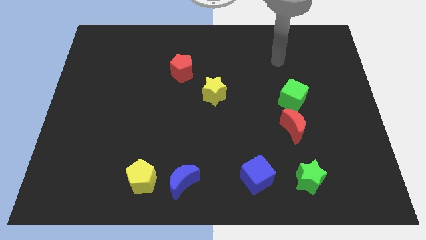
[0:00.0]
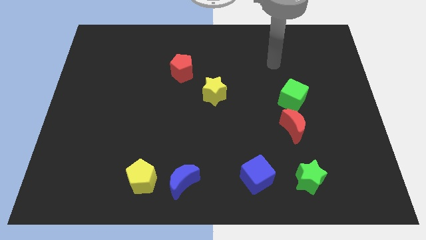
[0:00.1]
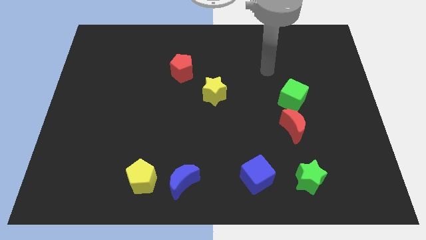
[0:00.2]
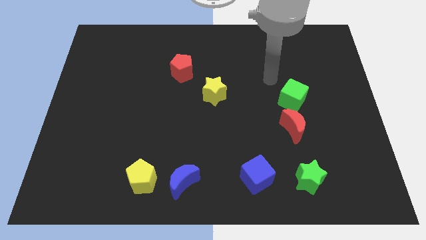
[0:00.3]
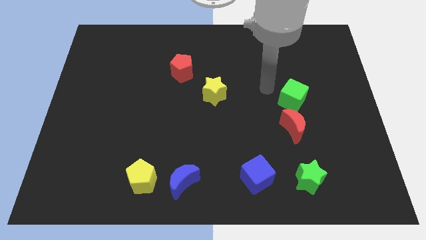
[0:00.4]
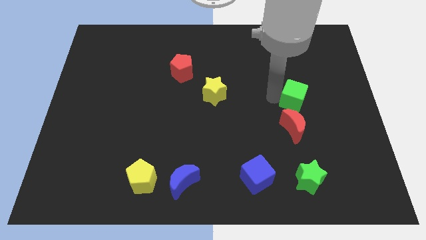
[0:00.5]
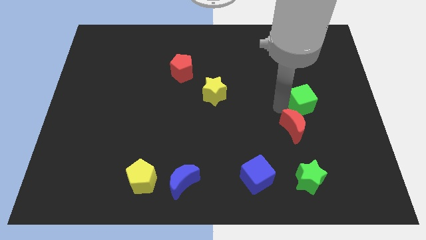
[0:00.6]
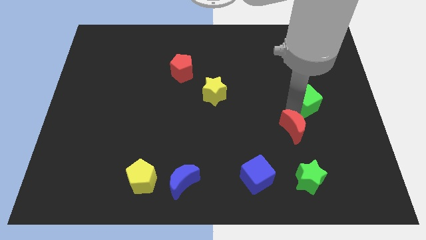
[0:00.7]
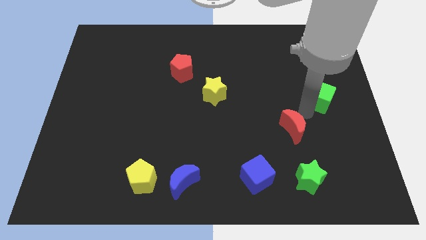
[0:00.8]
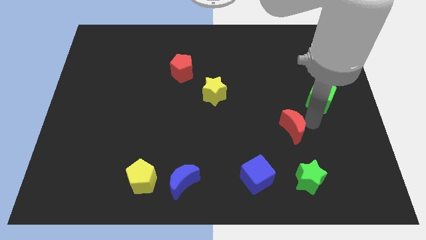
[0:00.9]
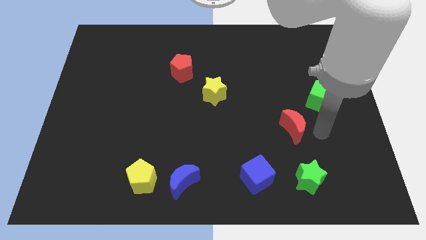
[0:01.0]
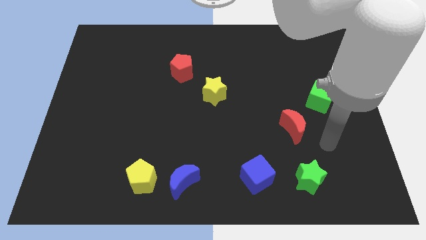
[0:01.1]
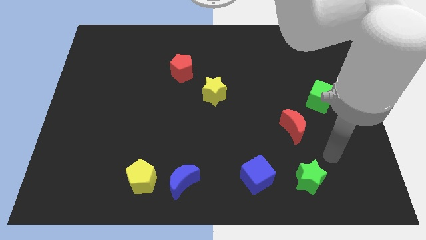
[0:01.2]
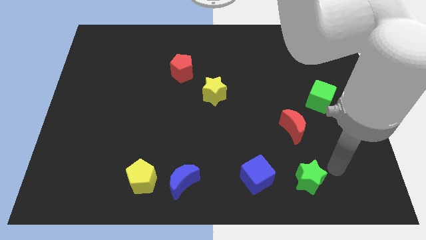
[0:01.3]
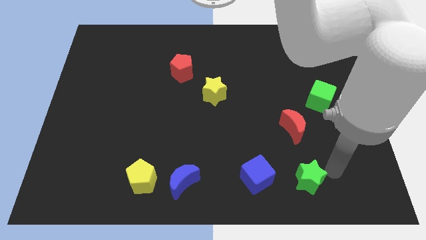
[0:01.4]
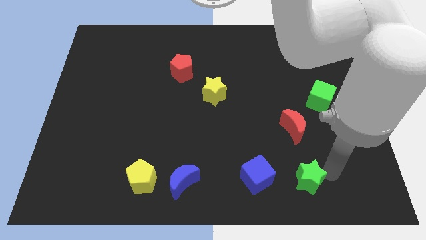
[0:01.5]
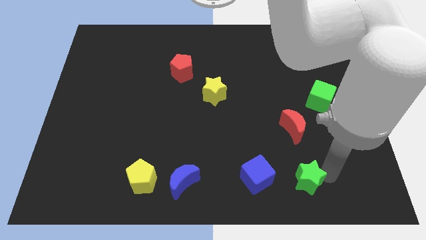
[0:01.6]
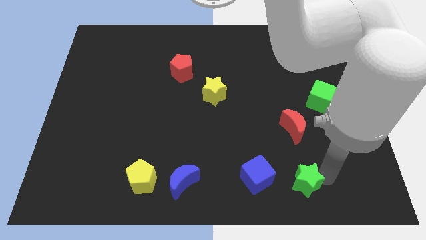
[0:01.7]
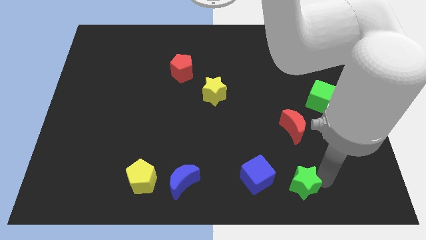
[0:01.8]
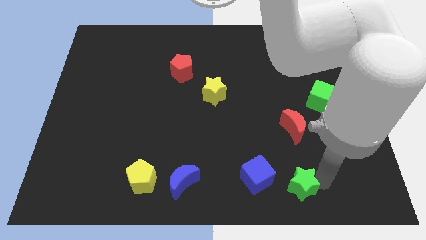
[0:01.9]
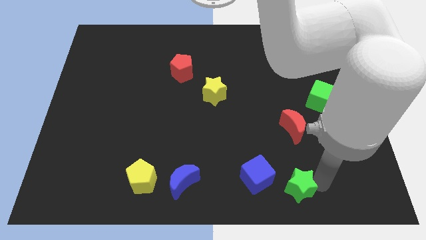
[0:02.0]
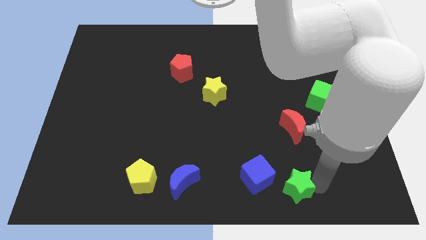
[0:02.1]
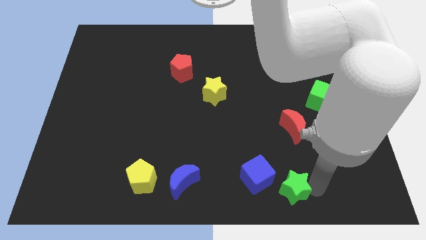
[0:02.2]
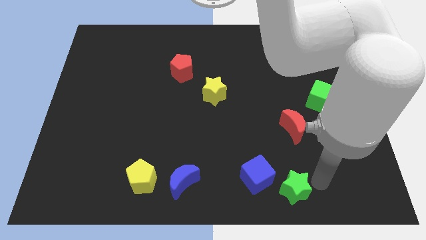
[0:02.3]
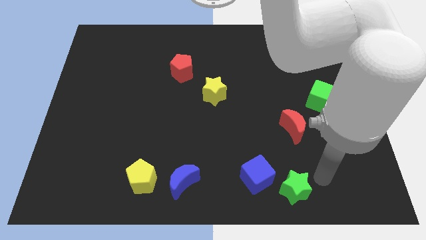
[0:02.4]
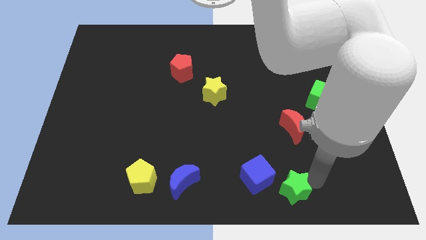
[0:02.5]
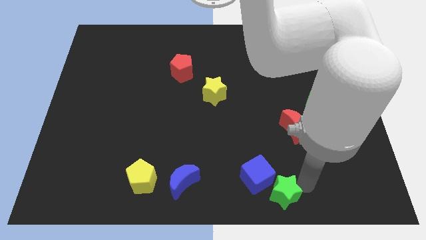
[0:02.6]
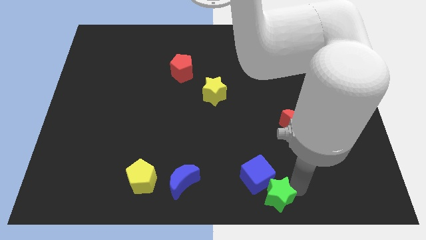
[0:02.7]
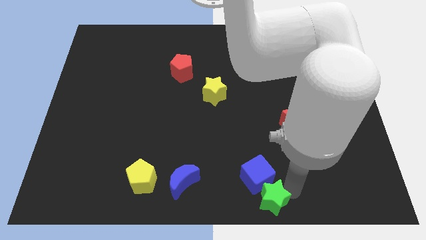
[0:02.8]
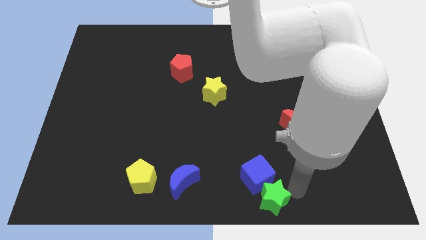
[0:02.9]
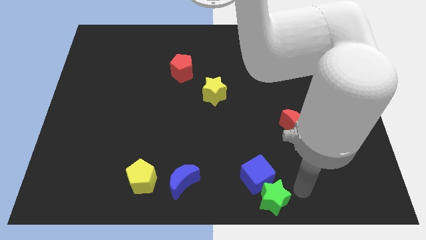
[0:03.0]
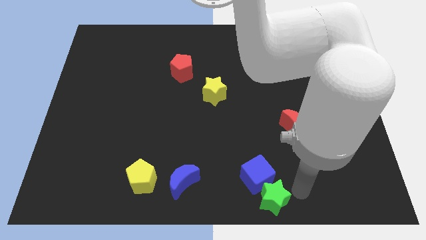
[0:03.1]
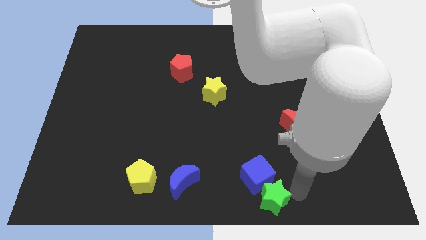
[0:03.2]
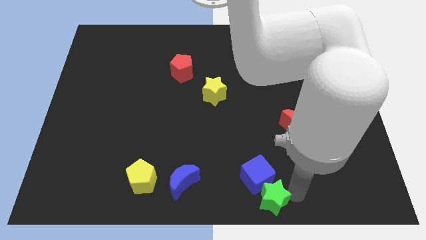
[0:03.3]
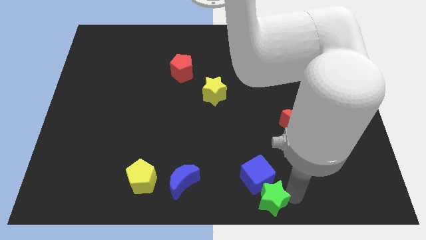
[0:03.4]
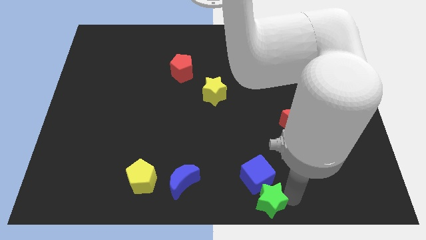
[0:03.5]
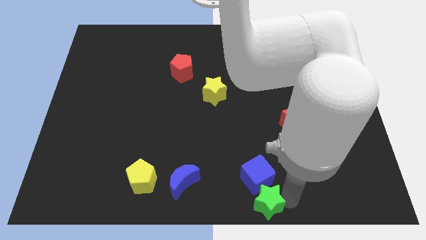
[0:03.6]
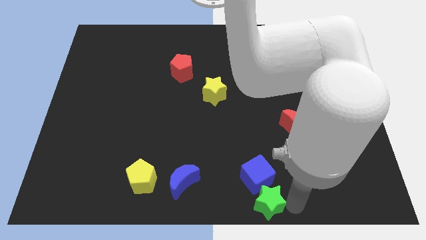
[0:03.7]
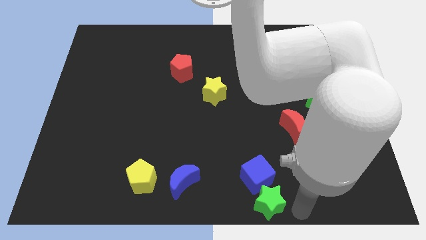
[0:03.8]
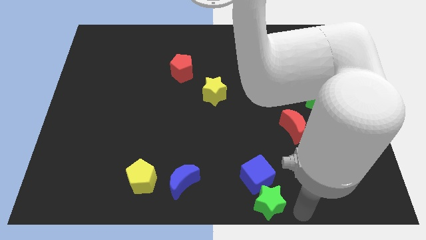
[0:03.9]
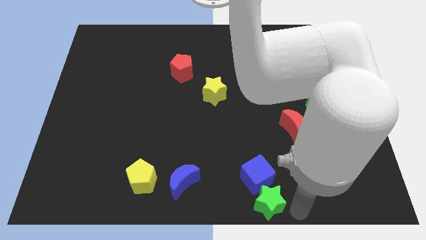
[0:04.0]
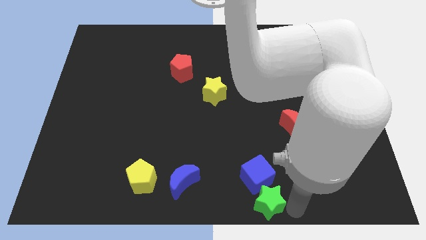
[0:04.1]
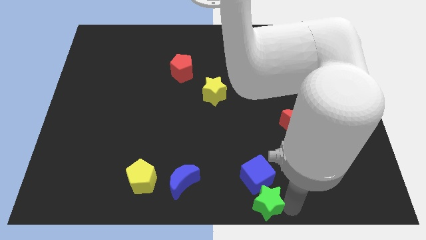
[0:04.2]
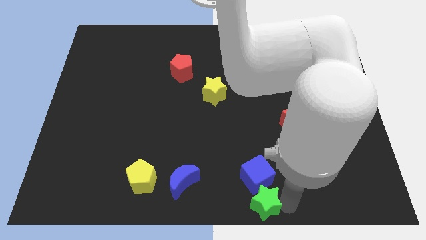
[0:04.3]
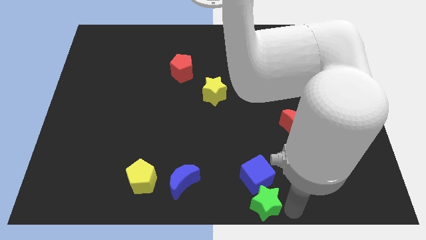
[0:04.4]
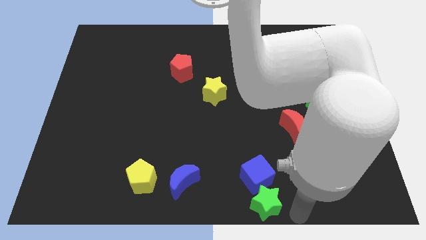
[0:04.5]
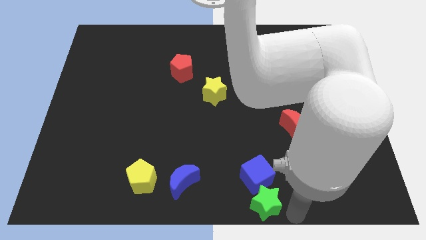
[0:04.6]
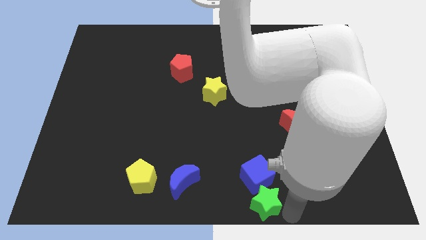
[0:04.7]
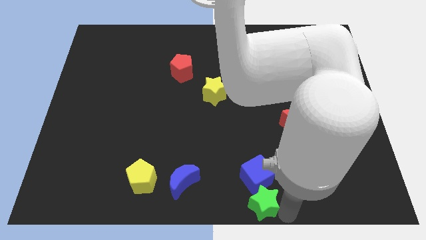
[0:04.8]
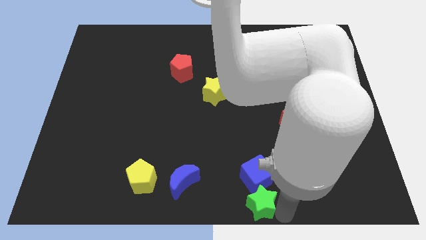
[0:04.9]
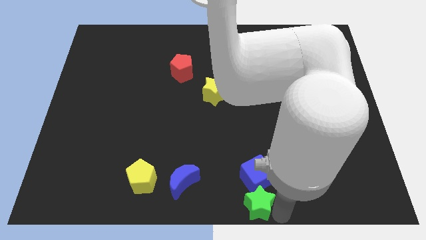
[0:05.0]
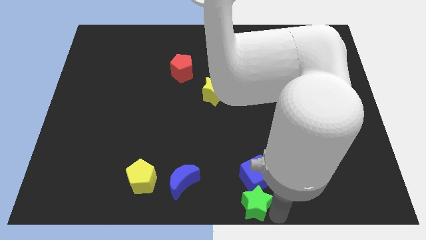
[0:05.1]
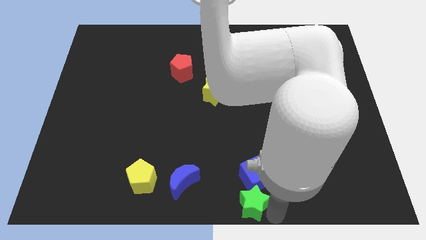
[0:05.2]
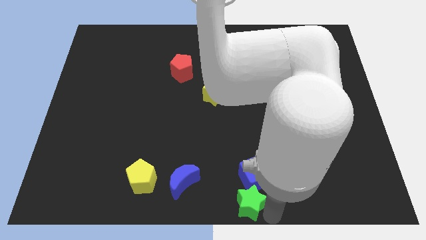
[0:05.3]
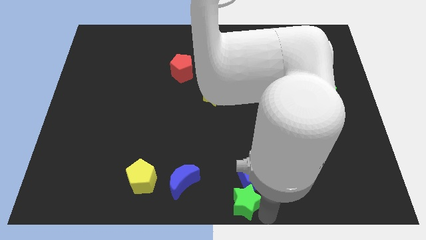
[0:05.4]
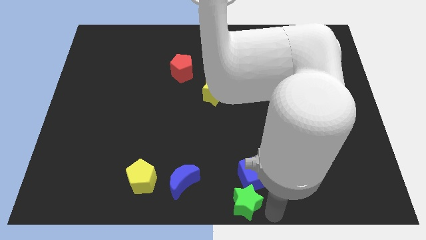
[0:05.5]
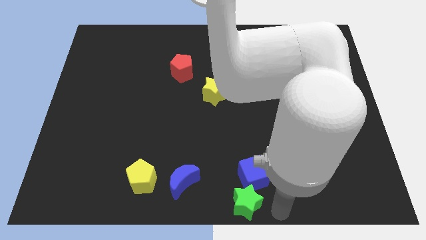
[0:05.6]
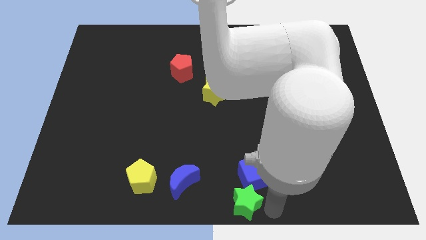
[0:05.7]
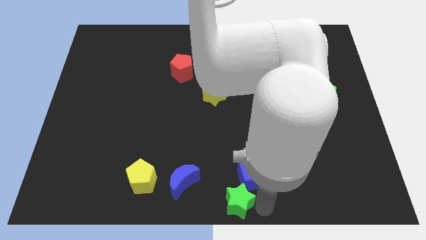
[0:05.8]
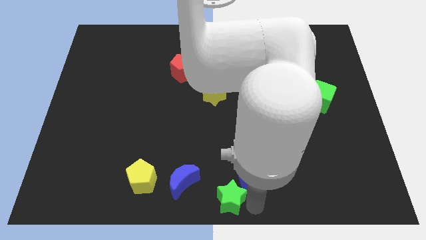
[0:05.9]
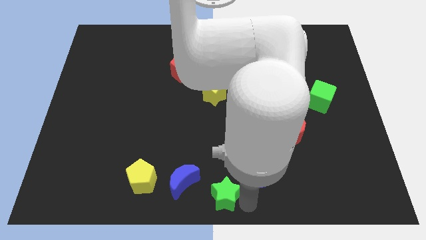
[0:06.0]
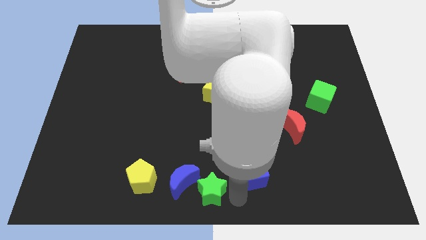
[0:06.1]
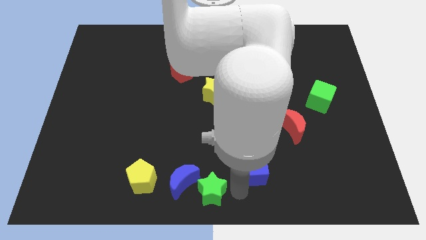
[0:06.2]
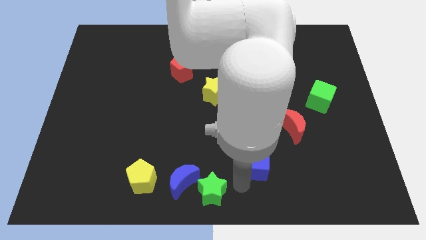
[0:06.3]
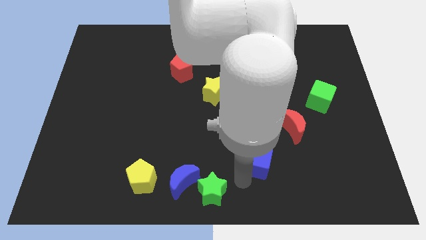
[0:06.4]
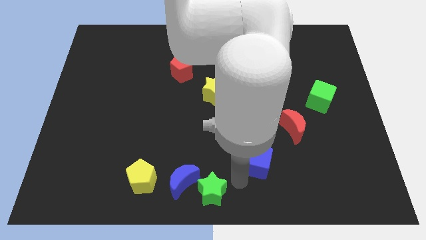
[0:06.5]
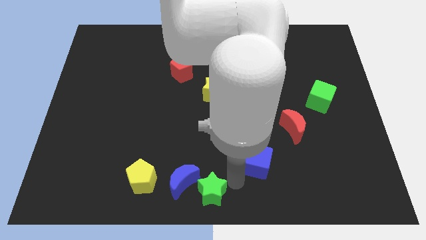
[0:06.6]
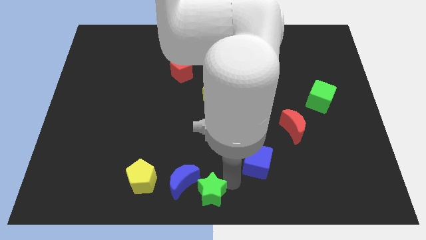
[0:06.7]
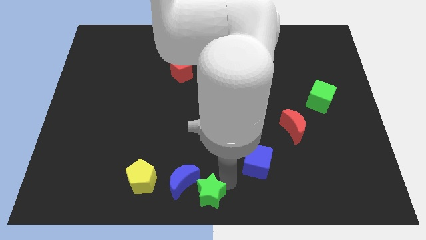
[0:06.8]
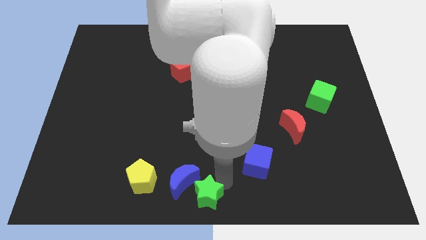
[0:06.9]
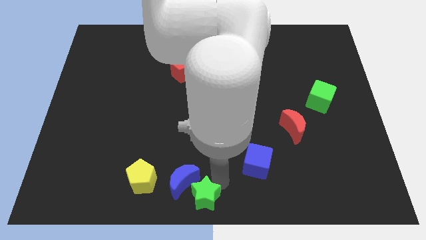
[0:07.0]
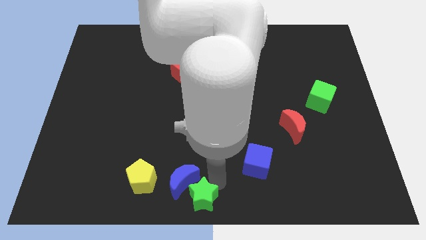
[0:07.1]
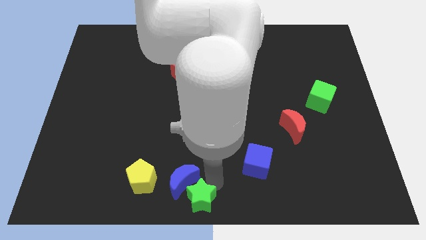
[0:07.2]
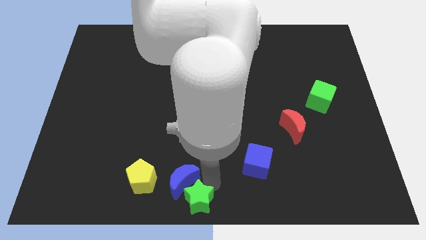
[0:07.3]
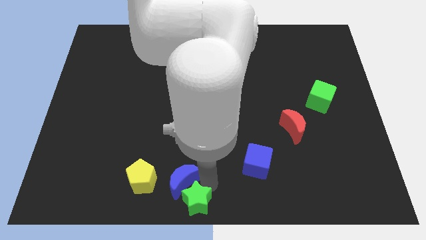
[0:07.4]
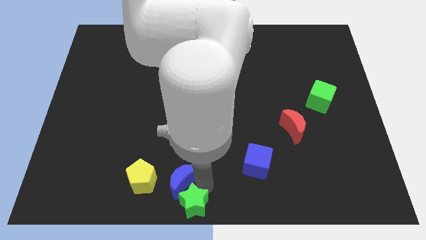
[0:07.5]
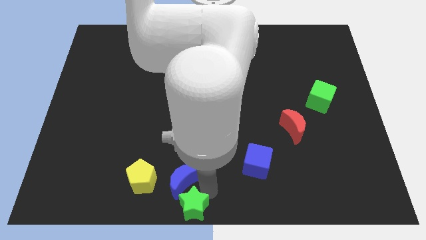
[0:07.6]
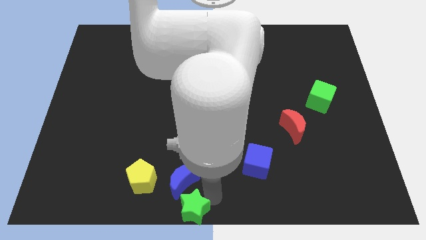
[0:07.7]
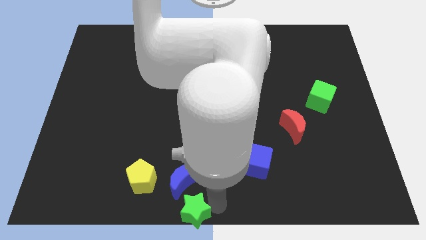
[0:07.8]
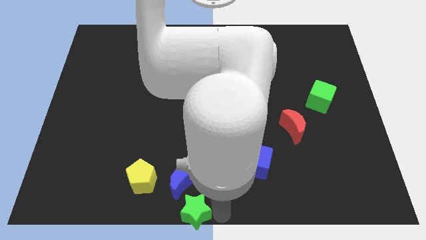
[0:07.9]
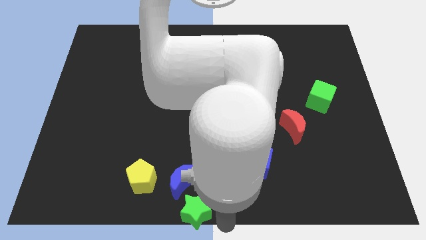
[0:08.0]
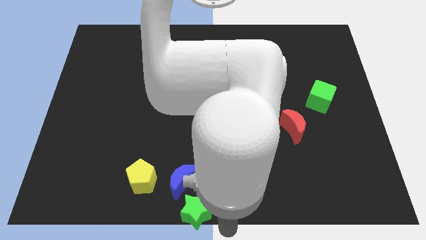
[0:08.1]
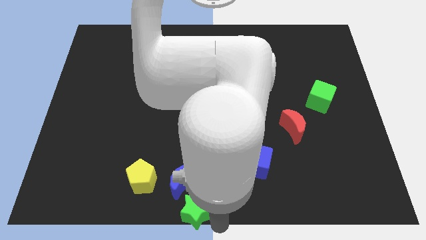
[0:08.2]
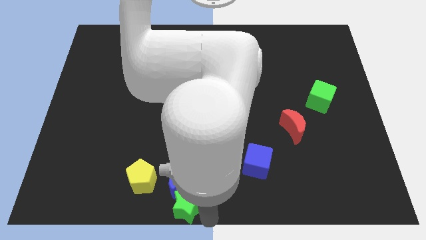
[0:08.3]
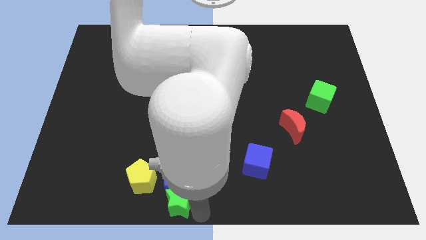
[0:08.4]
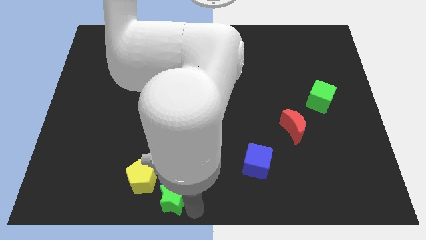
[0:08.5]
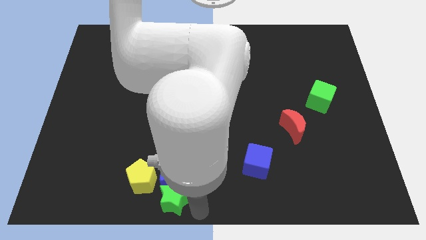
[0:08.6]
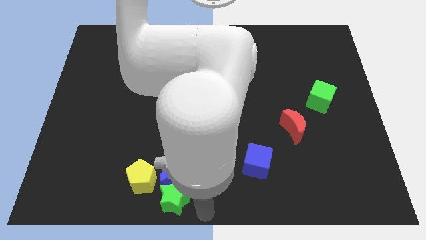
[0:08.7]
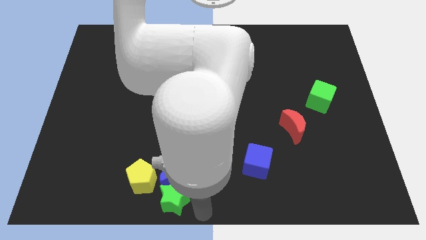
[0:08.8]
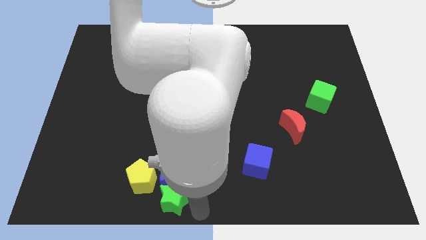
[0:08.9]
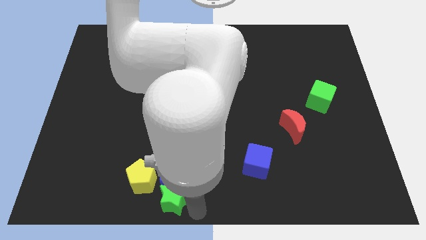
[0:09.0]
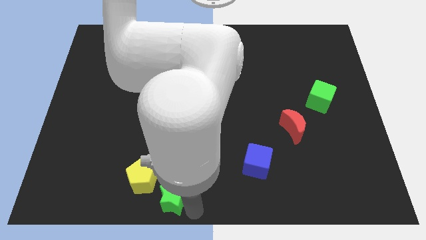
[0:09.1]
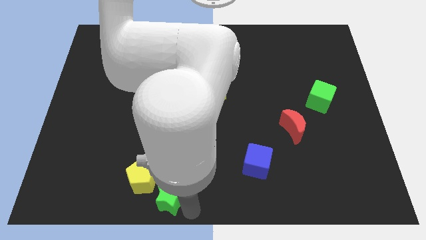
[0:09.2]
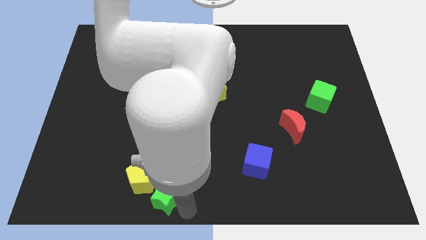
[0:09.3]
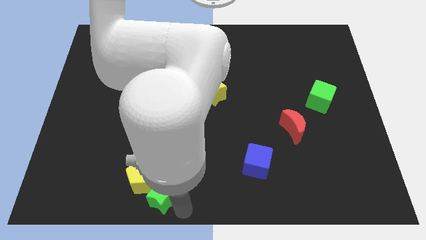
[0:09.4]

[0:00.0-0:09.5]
push the green star close to the yellow pentagon
